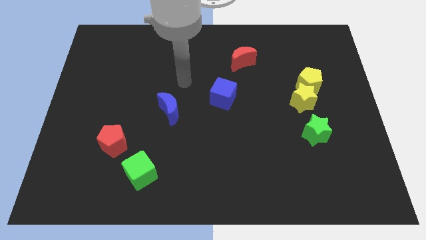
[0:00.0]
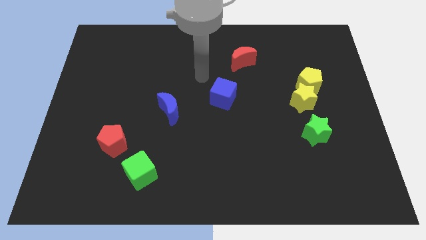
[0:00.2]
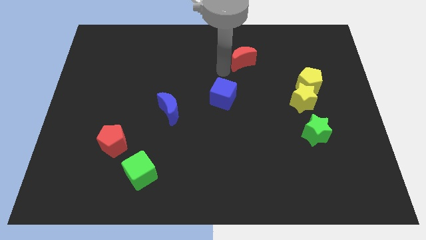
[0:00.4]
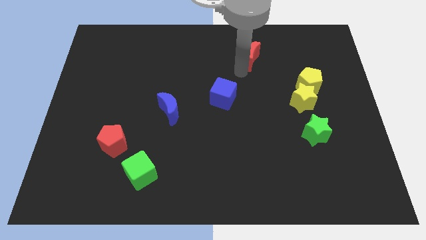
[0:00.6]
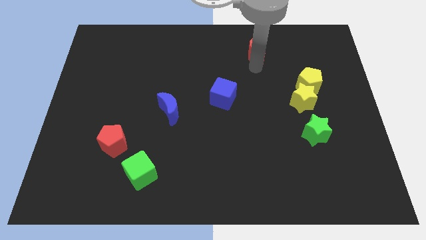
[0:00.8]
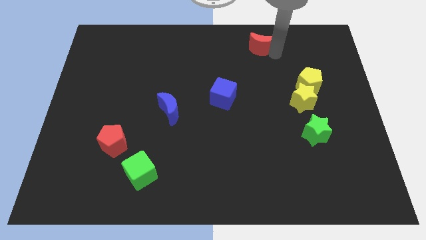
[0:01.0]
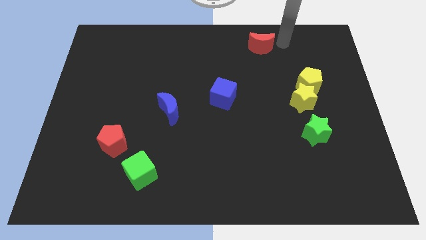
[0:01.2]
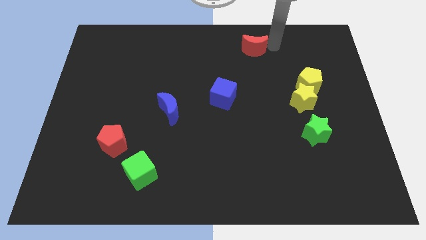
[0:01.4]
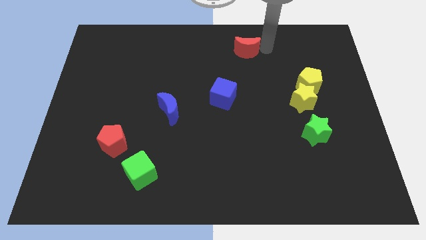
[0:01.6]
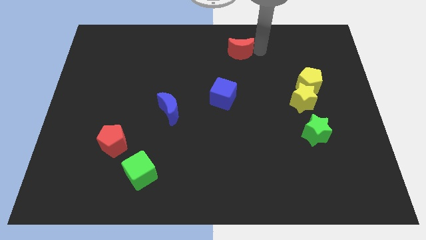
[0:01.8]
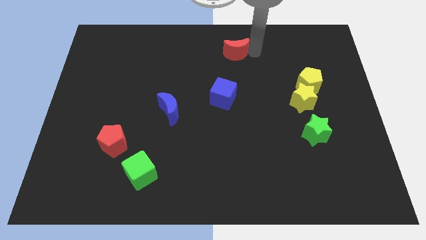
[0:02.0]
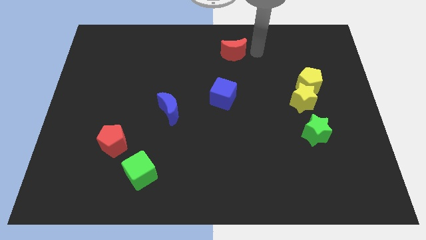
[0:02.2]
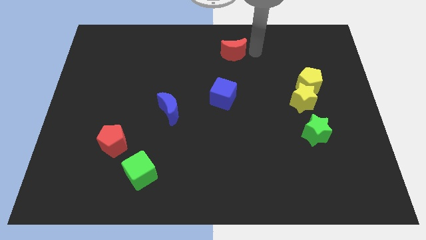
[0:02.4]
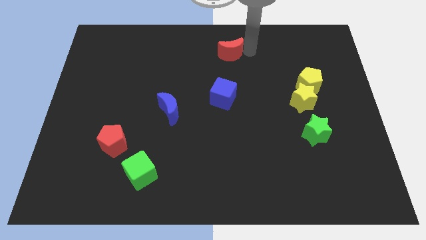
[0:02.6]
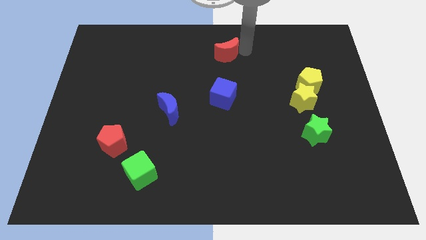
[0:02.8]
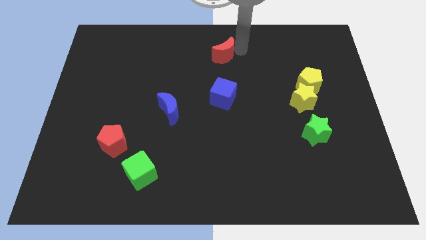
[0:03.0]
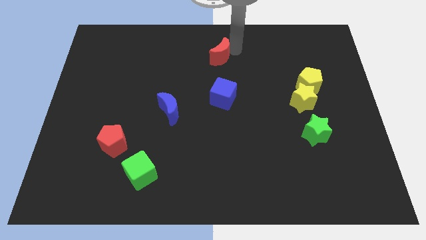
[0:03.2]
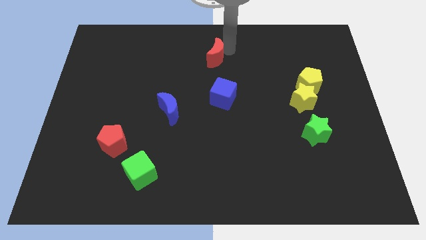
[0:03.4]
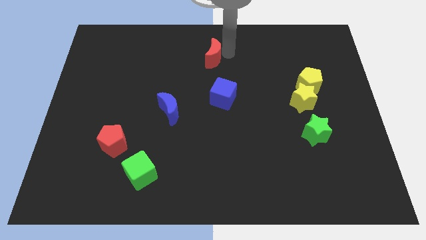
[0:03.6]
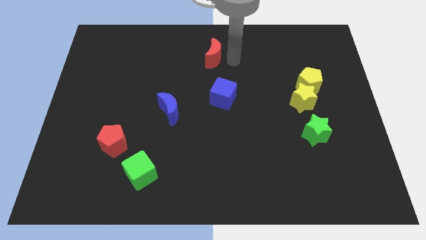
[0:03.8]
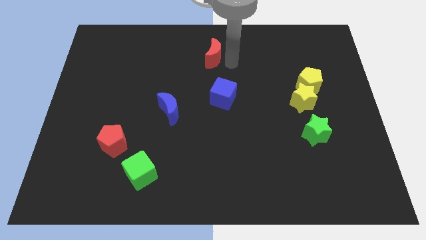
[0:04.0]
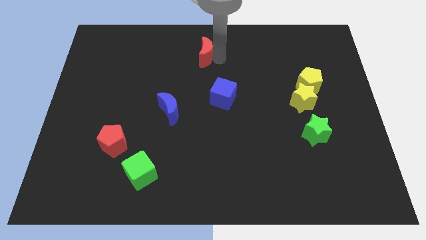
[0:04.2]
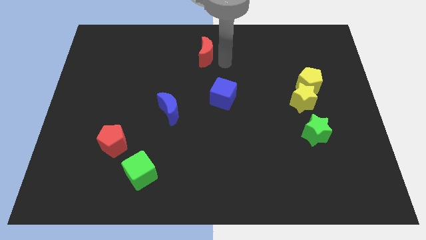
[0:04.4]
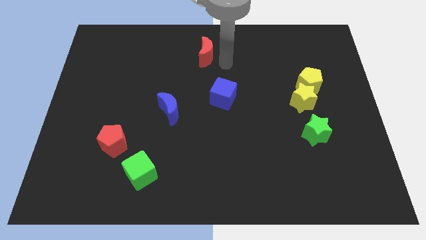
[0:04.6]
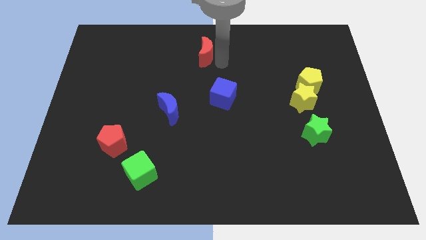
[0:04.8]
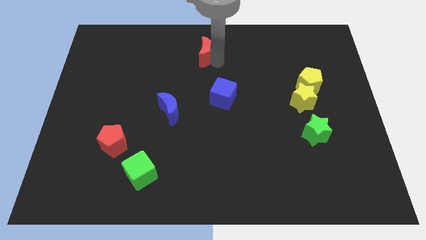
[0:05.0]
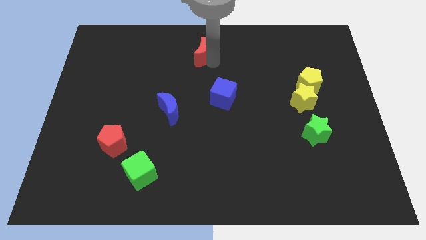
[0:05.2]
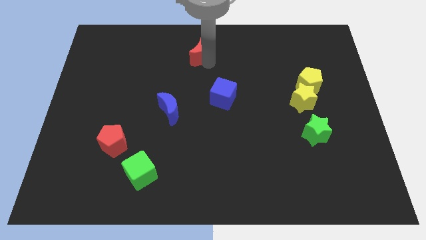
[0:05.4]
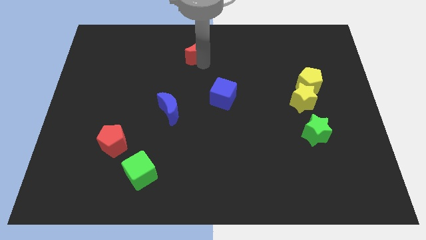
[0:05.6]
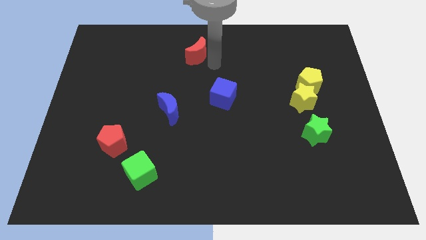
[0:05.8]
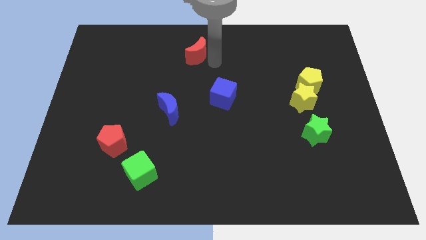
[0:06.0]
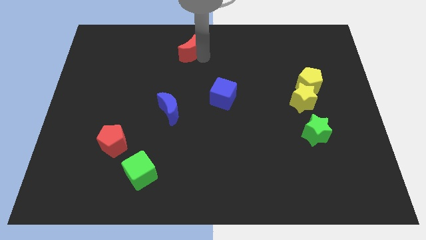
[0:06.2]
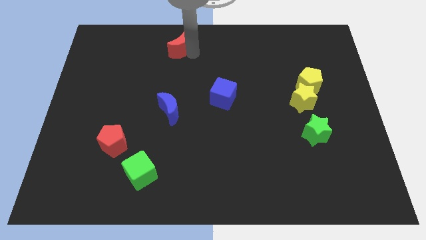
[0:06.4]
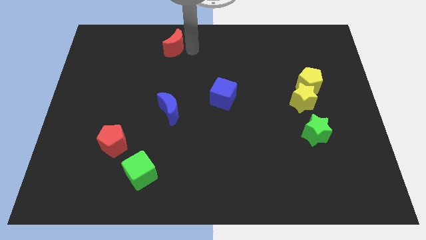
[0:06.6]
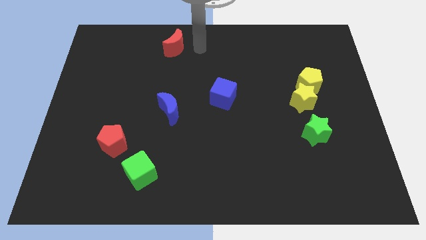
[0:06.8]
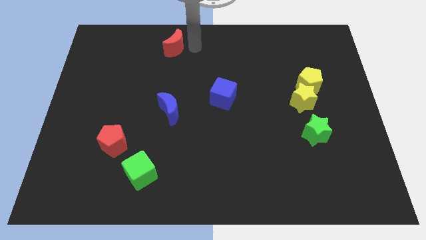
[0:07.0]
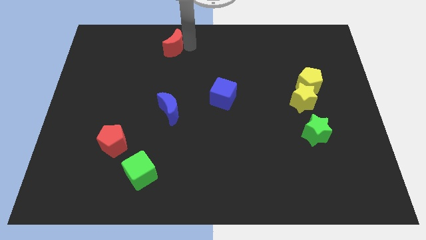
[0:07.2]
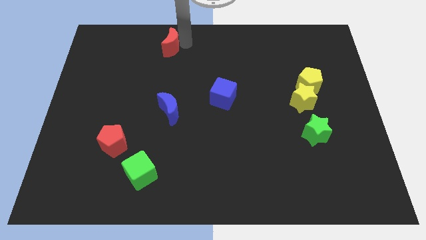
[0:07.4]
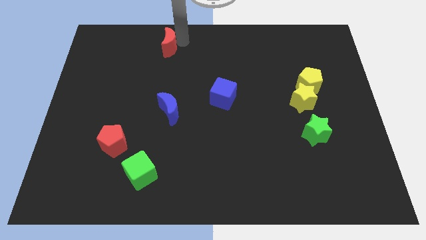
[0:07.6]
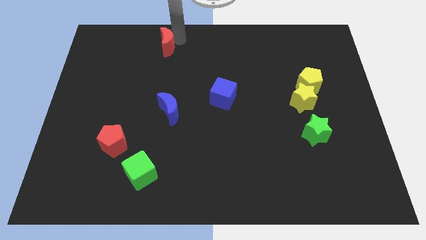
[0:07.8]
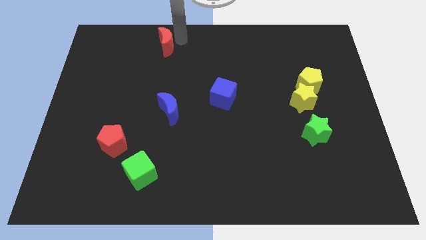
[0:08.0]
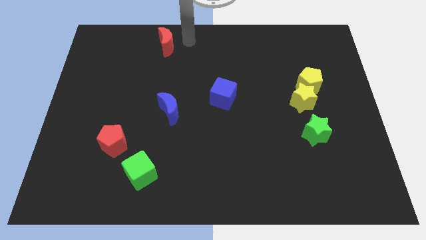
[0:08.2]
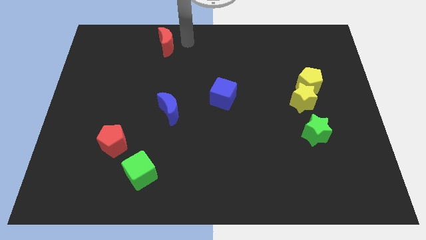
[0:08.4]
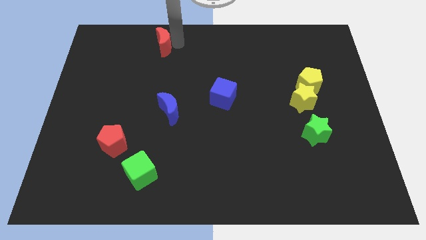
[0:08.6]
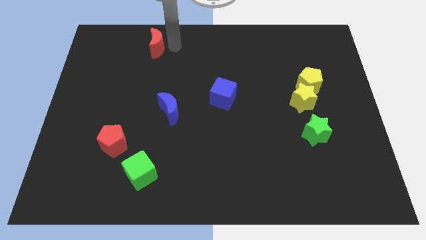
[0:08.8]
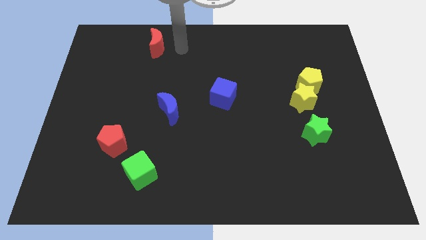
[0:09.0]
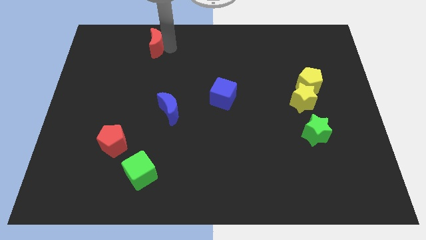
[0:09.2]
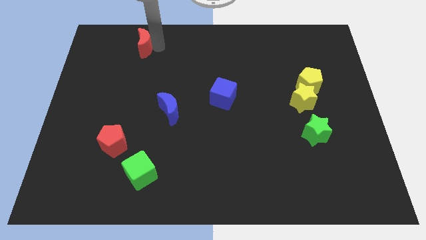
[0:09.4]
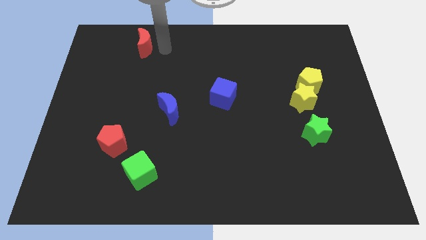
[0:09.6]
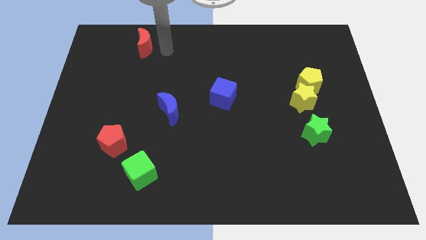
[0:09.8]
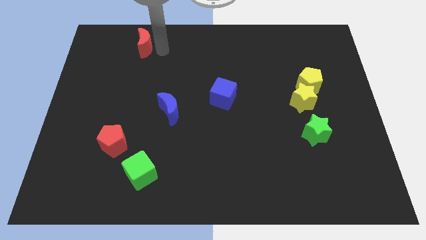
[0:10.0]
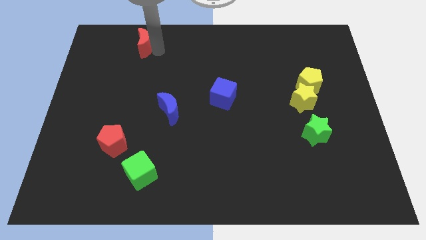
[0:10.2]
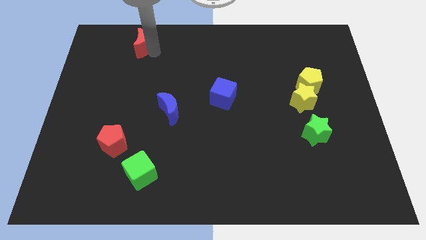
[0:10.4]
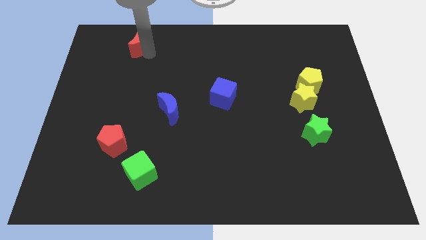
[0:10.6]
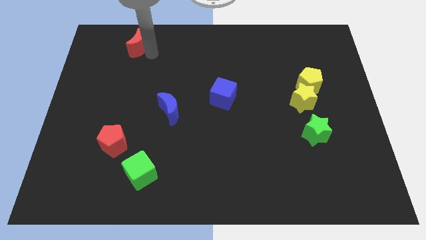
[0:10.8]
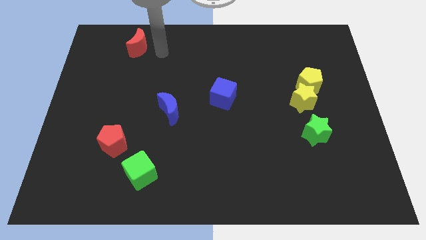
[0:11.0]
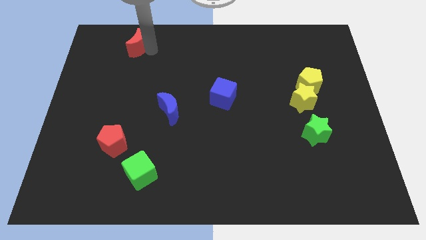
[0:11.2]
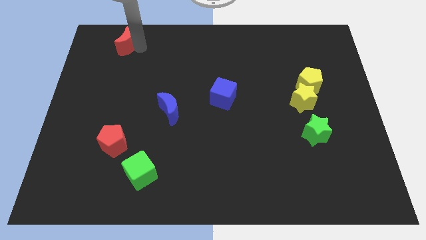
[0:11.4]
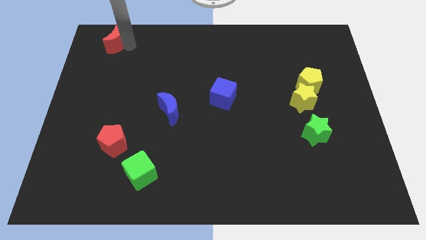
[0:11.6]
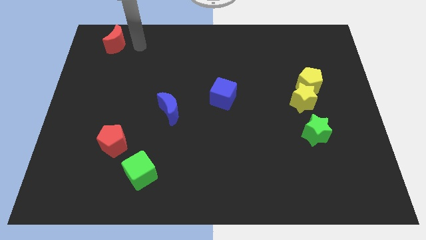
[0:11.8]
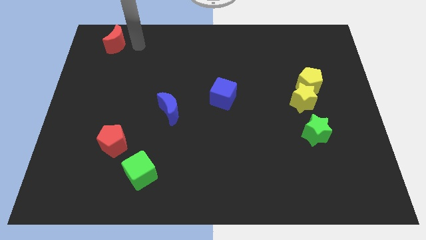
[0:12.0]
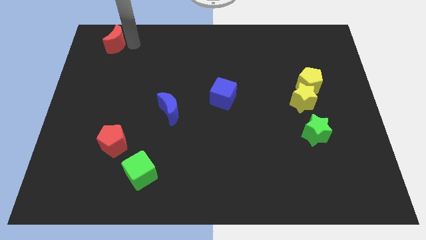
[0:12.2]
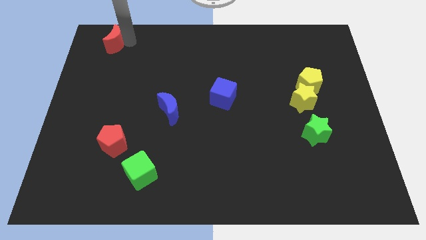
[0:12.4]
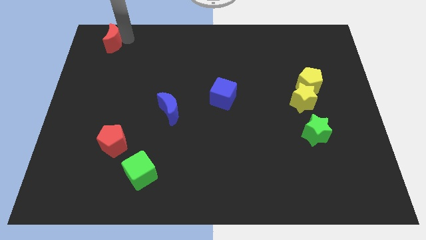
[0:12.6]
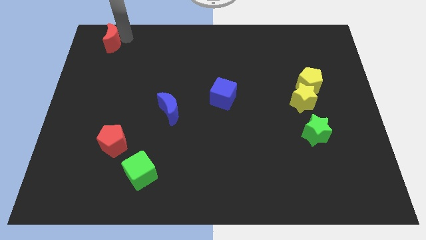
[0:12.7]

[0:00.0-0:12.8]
push the red moon to the top left corner
